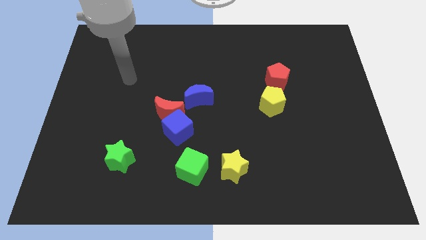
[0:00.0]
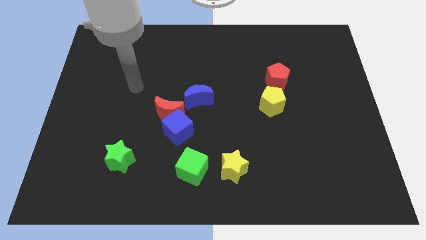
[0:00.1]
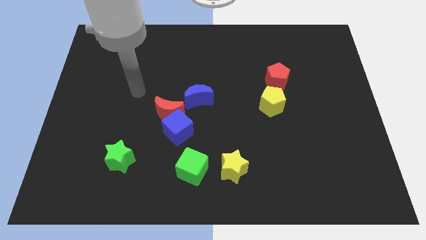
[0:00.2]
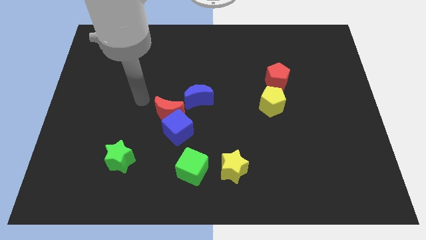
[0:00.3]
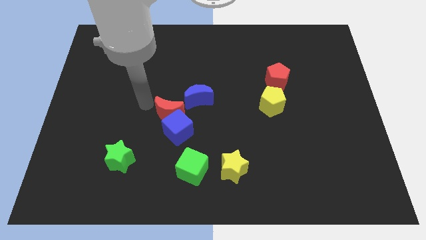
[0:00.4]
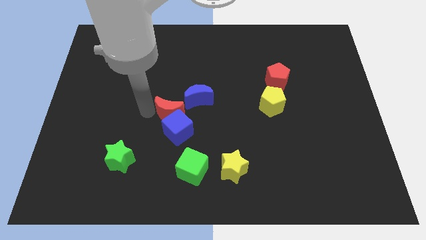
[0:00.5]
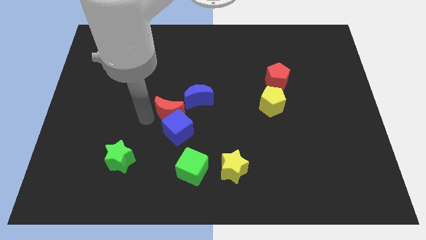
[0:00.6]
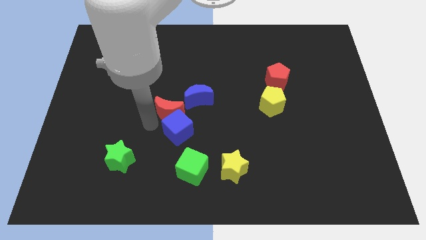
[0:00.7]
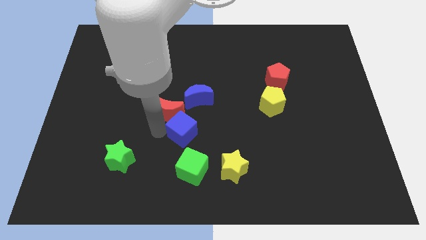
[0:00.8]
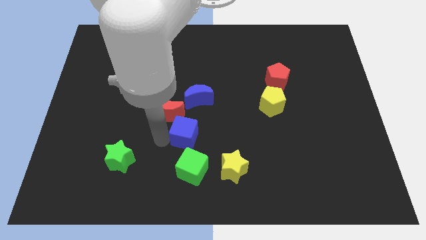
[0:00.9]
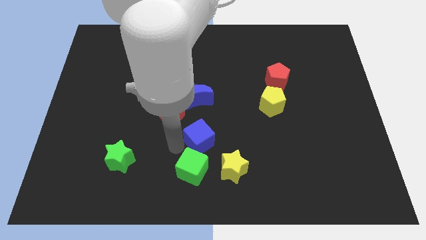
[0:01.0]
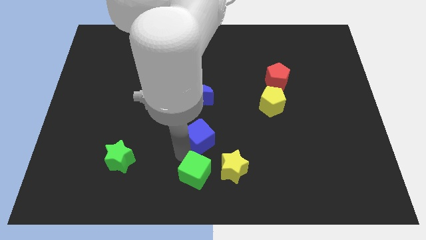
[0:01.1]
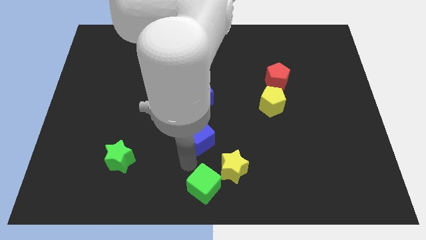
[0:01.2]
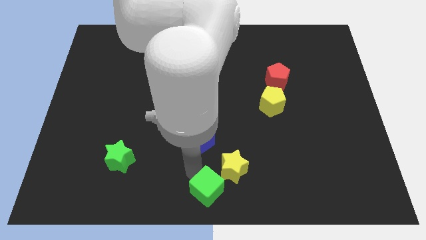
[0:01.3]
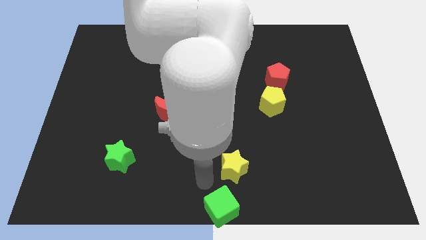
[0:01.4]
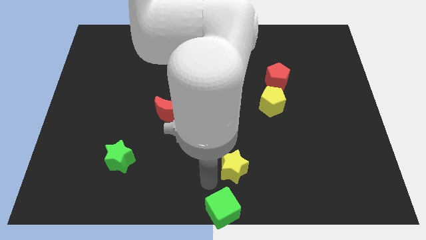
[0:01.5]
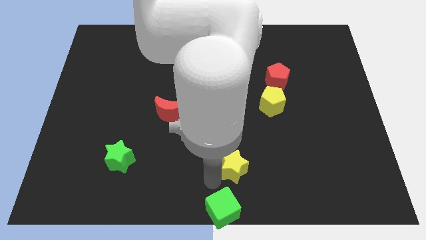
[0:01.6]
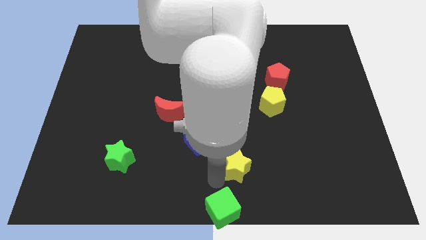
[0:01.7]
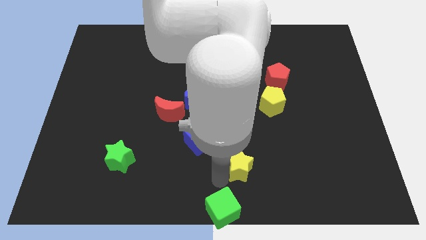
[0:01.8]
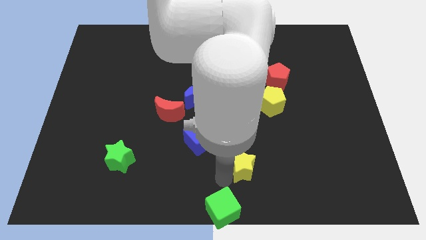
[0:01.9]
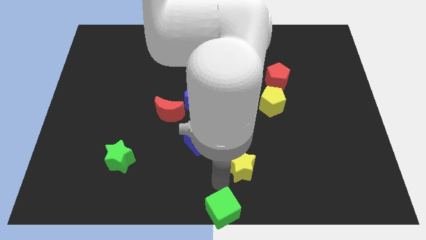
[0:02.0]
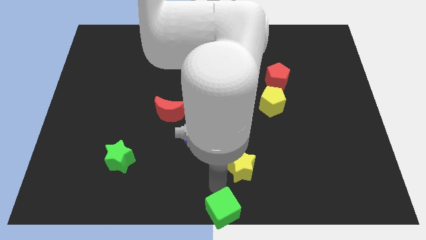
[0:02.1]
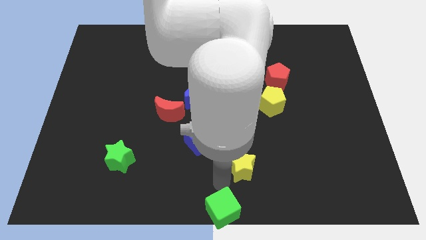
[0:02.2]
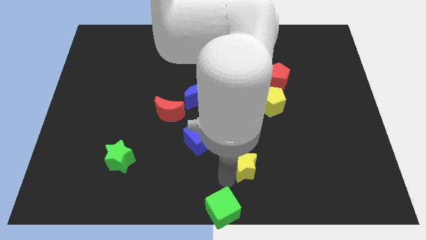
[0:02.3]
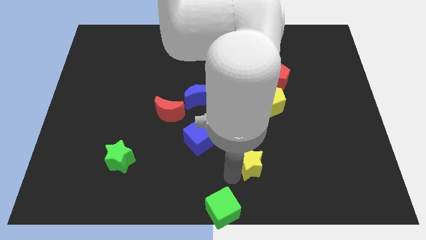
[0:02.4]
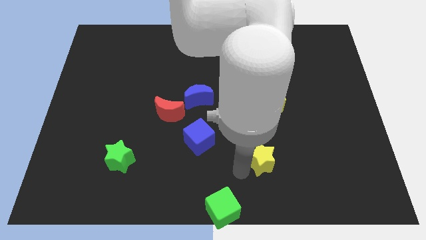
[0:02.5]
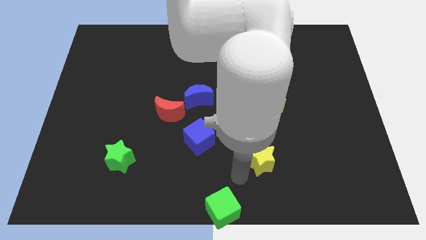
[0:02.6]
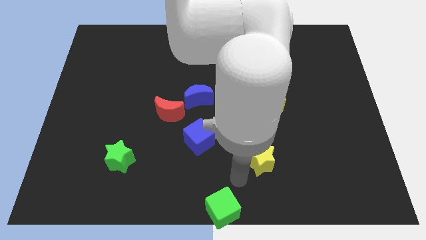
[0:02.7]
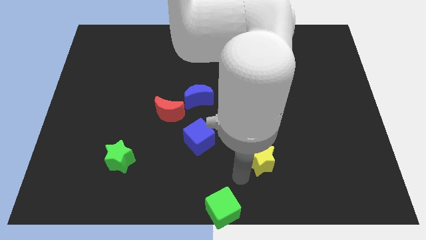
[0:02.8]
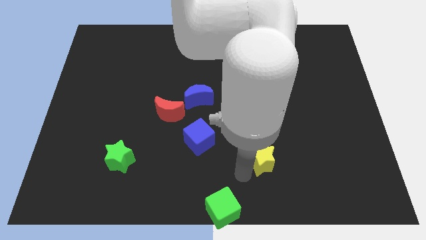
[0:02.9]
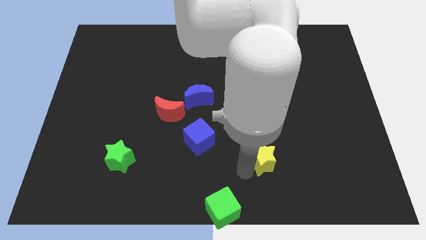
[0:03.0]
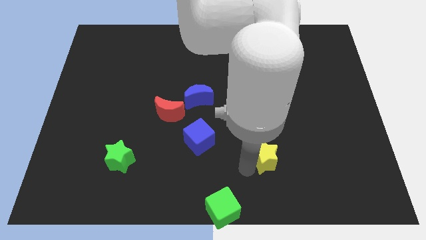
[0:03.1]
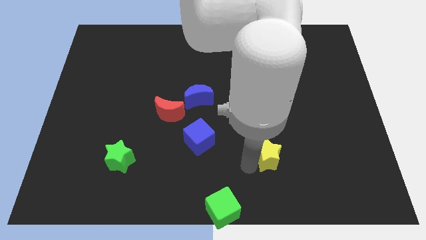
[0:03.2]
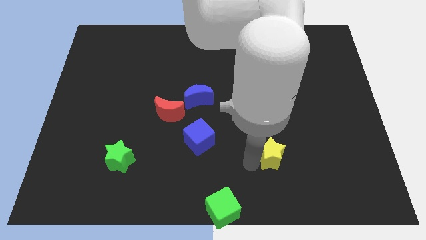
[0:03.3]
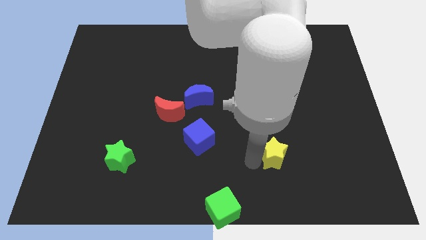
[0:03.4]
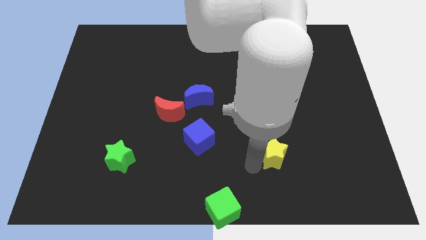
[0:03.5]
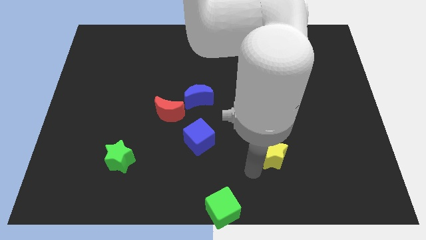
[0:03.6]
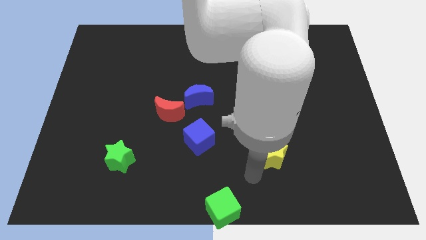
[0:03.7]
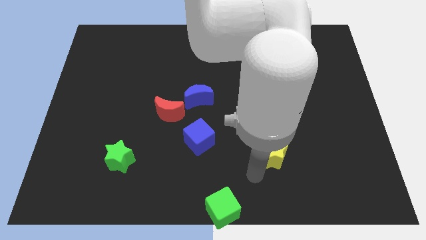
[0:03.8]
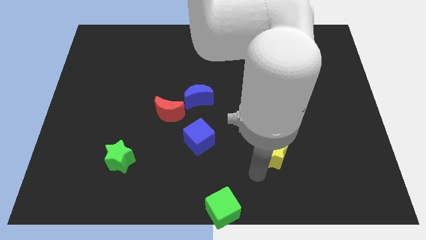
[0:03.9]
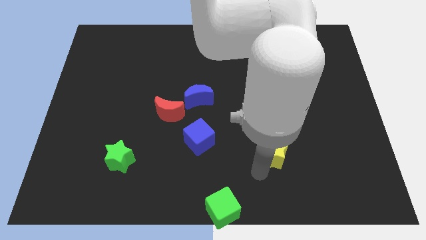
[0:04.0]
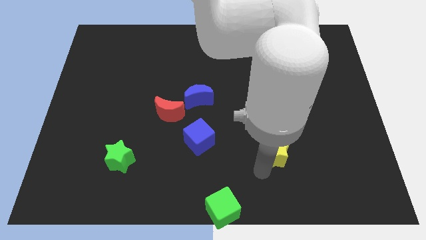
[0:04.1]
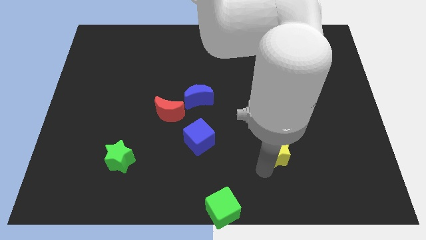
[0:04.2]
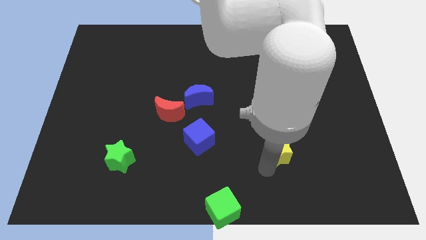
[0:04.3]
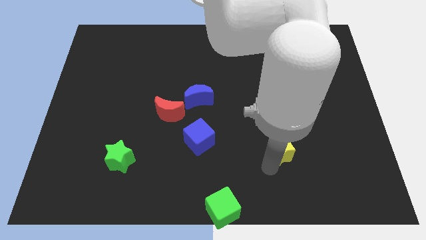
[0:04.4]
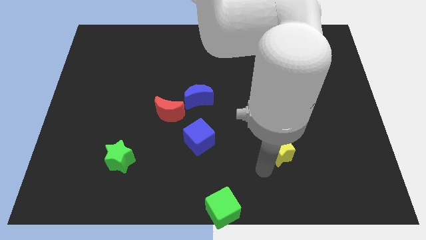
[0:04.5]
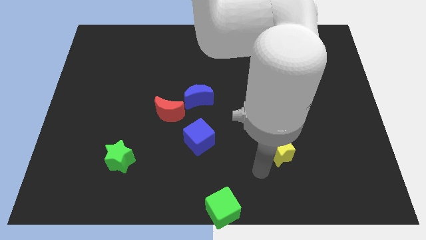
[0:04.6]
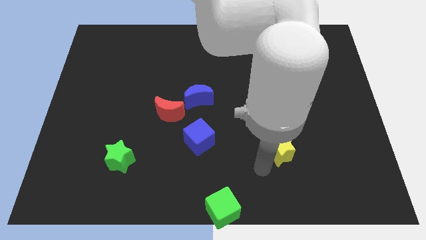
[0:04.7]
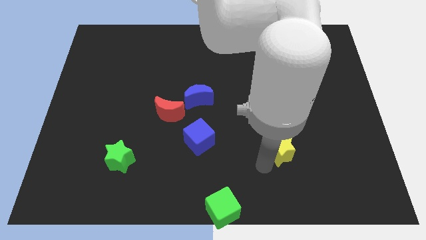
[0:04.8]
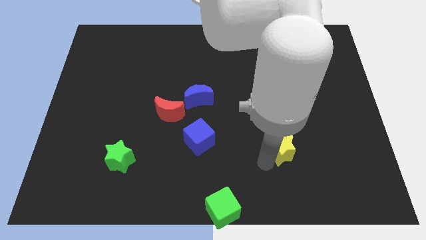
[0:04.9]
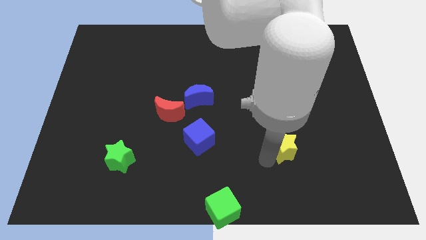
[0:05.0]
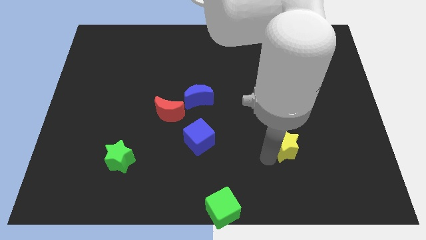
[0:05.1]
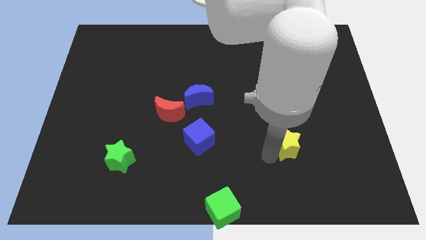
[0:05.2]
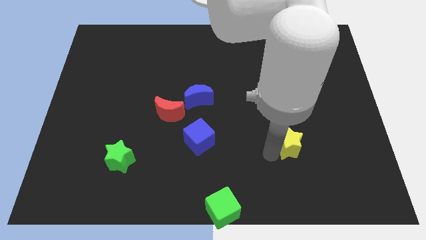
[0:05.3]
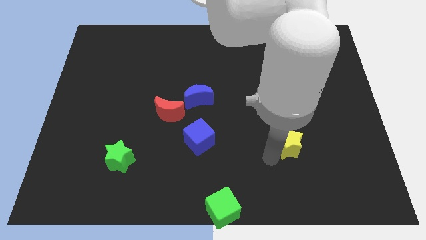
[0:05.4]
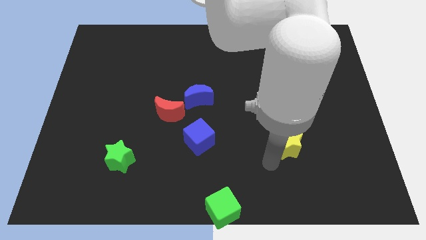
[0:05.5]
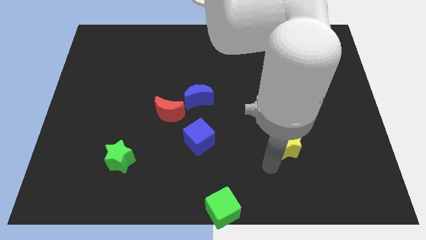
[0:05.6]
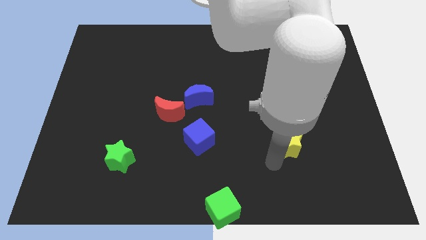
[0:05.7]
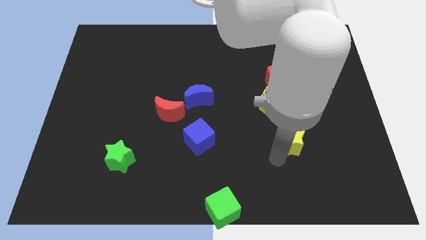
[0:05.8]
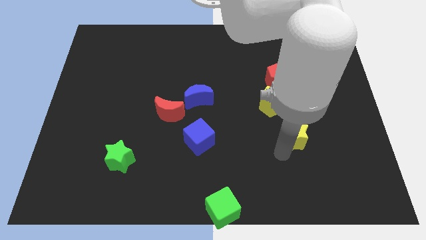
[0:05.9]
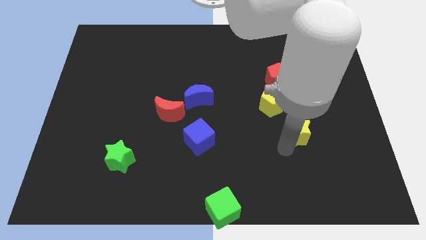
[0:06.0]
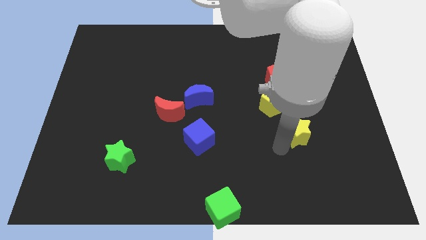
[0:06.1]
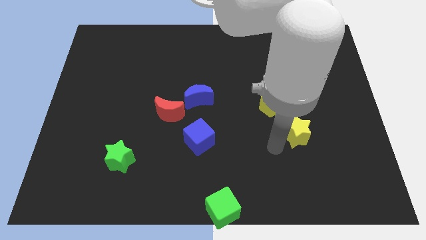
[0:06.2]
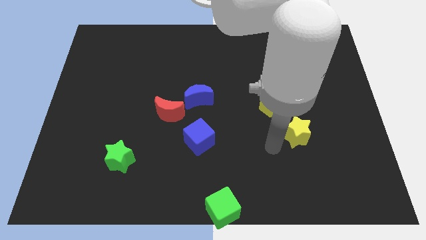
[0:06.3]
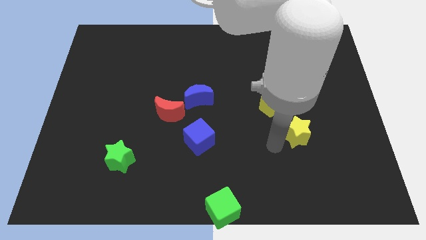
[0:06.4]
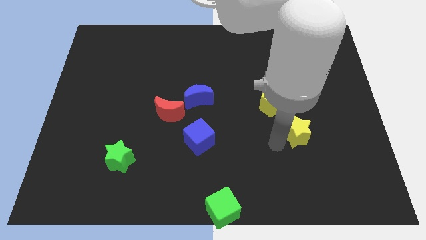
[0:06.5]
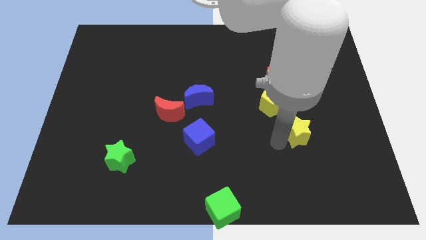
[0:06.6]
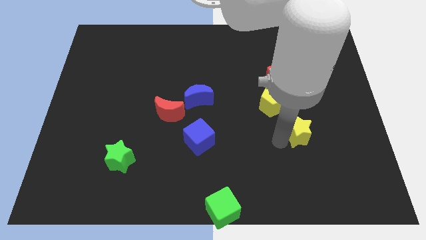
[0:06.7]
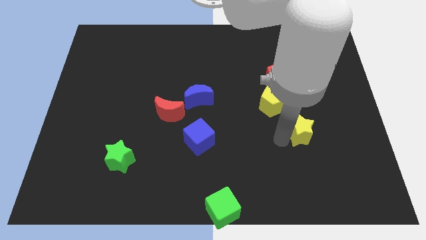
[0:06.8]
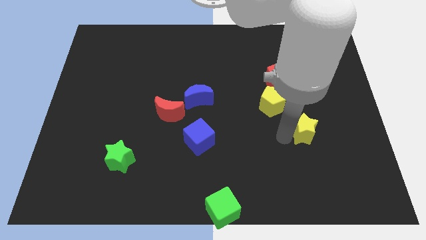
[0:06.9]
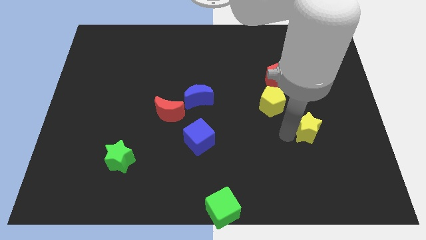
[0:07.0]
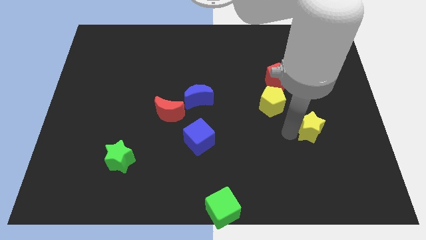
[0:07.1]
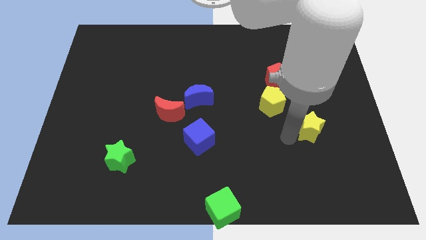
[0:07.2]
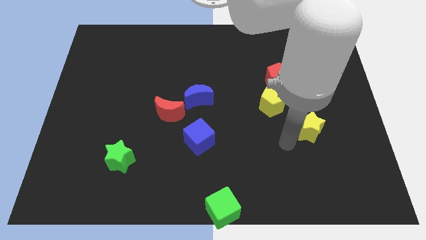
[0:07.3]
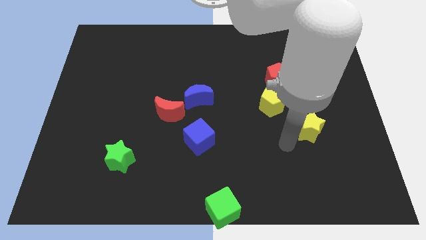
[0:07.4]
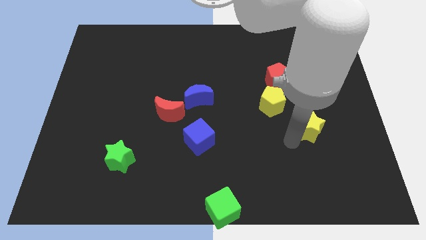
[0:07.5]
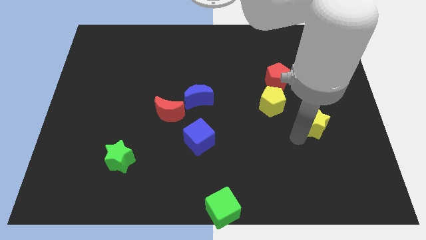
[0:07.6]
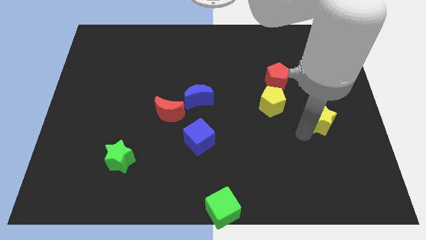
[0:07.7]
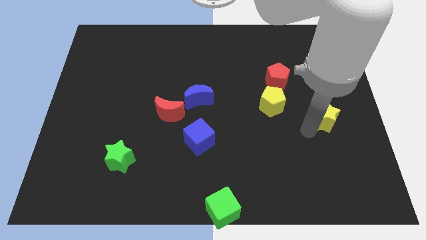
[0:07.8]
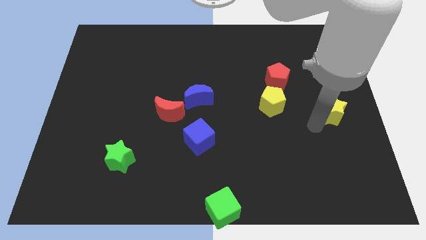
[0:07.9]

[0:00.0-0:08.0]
slide the yellow star to the right side
